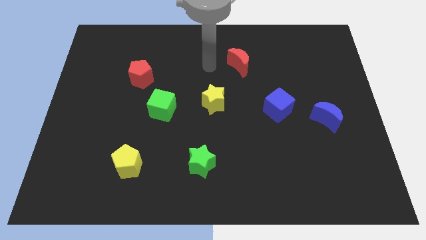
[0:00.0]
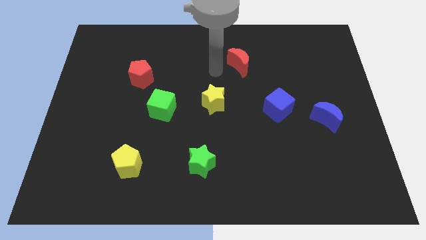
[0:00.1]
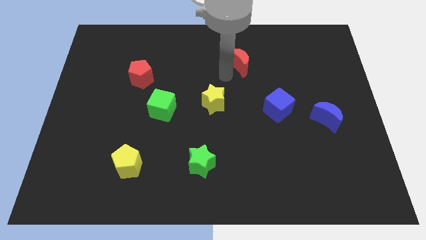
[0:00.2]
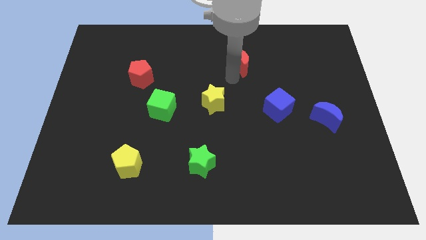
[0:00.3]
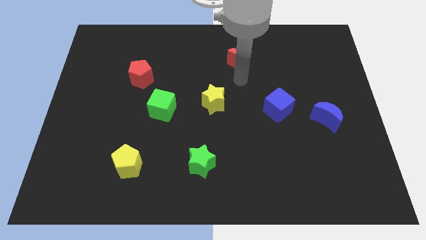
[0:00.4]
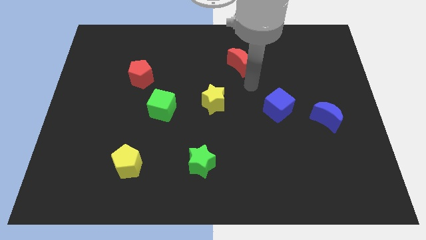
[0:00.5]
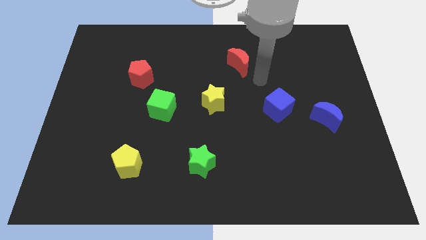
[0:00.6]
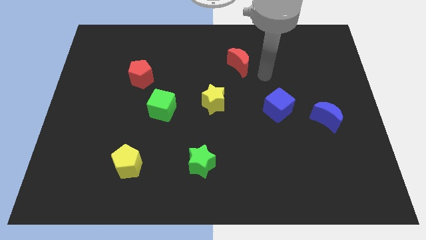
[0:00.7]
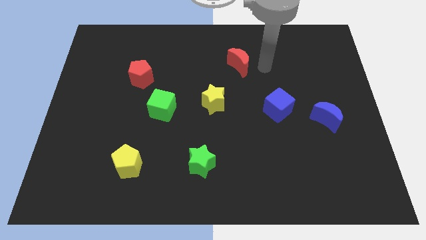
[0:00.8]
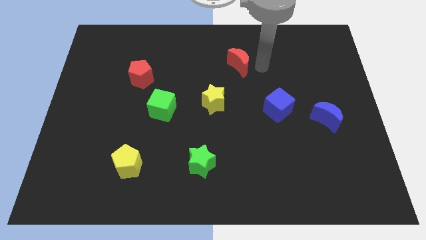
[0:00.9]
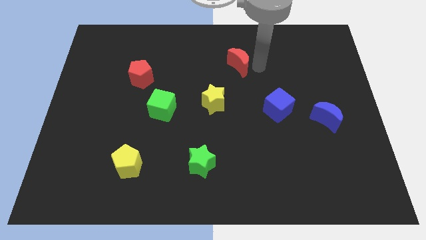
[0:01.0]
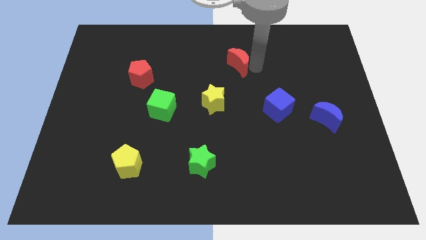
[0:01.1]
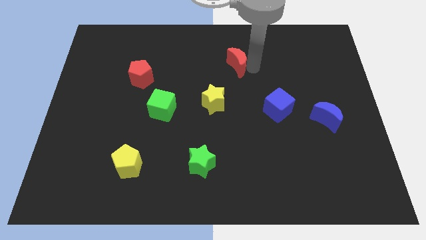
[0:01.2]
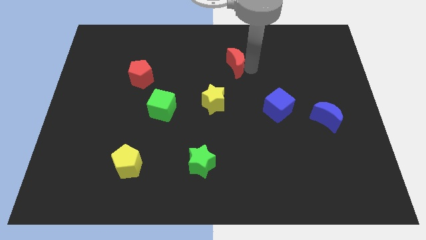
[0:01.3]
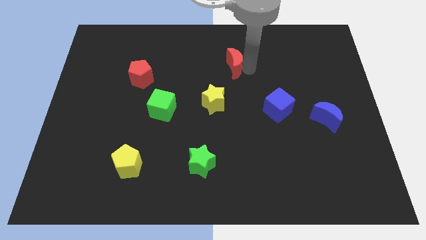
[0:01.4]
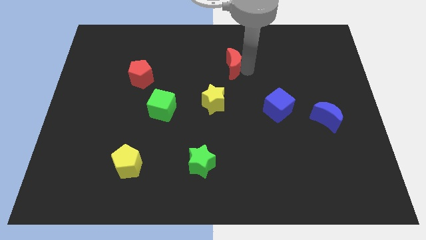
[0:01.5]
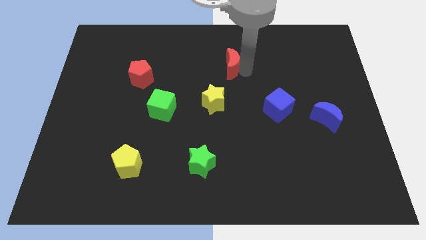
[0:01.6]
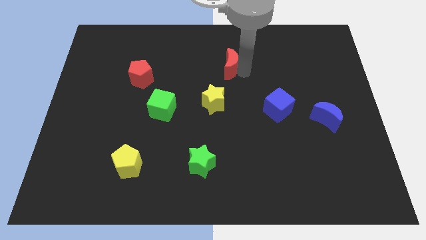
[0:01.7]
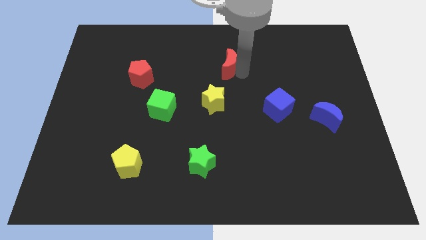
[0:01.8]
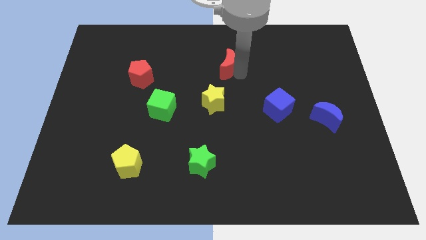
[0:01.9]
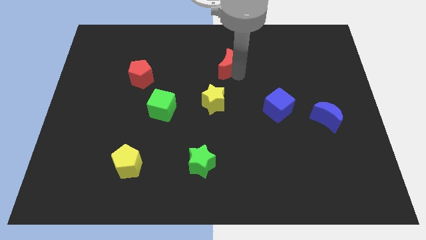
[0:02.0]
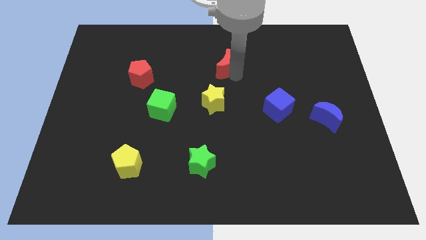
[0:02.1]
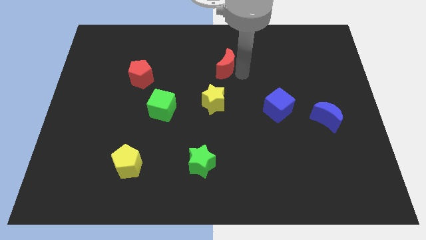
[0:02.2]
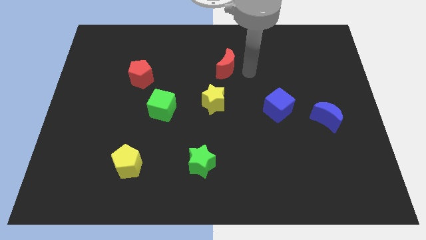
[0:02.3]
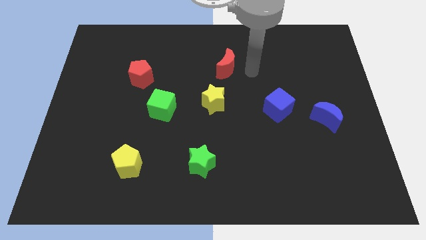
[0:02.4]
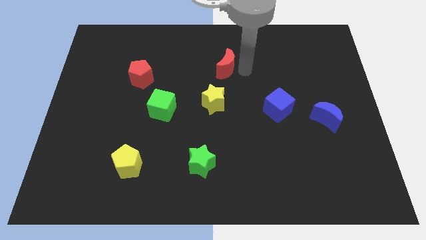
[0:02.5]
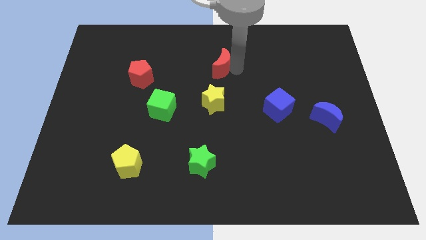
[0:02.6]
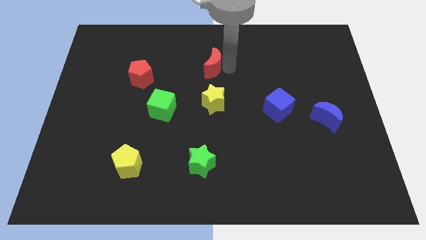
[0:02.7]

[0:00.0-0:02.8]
move the red moon left a bit

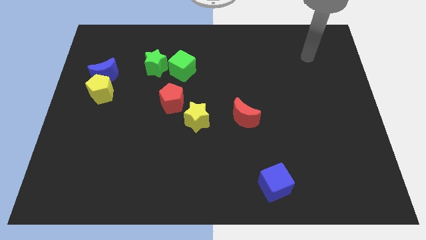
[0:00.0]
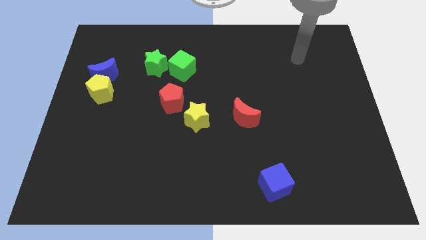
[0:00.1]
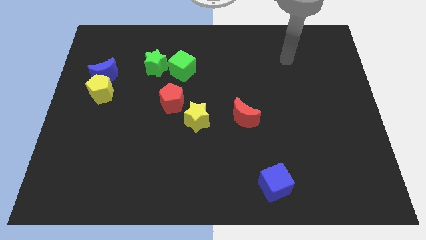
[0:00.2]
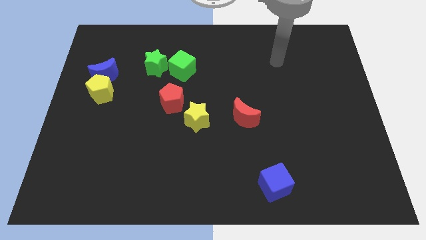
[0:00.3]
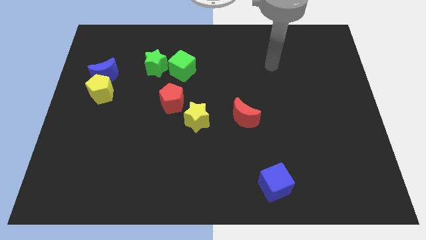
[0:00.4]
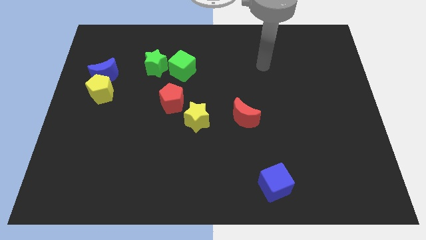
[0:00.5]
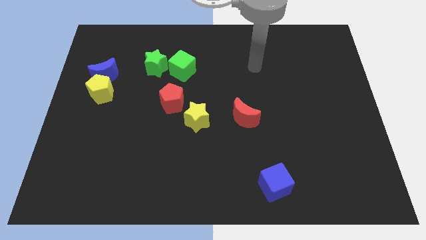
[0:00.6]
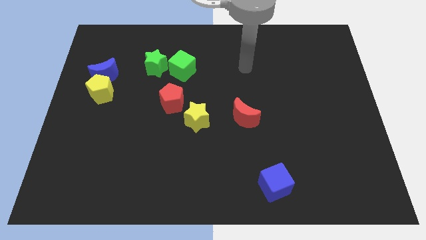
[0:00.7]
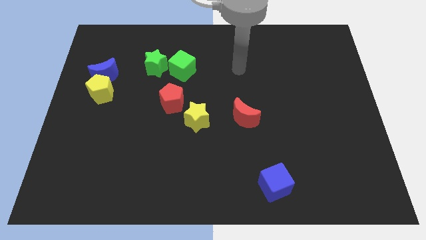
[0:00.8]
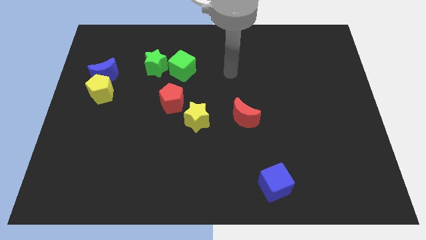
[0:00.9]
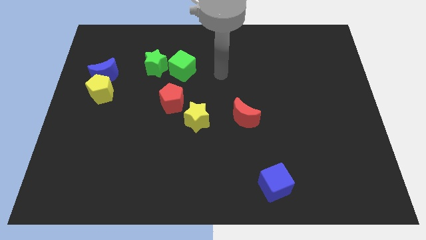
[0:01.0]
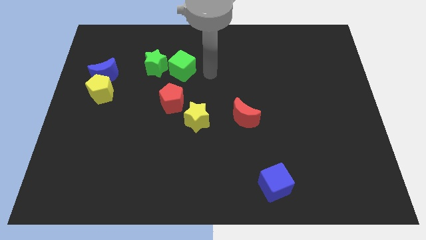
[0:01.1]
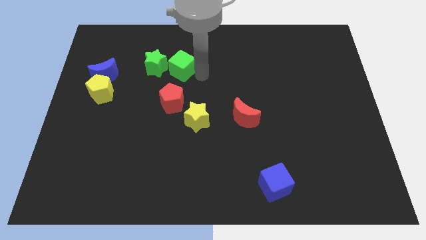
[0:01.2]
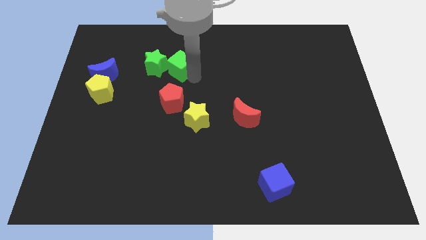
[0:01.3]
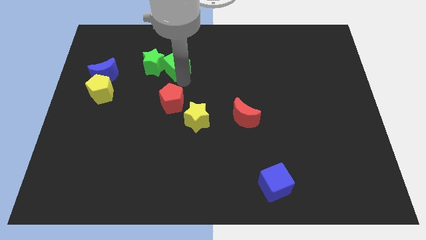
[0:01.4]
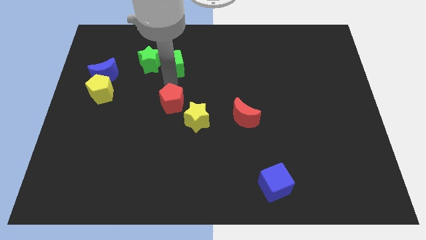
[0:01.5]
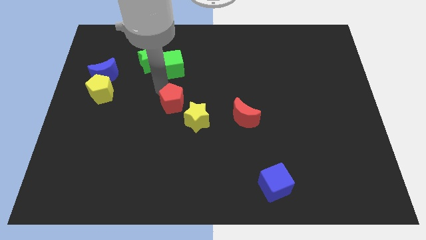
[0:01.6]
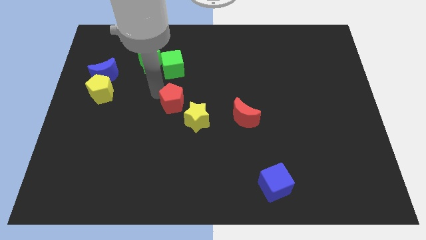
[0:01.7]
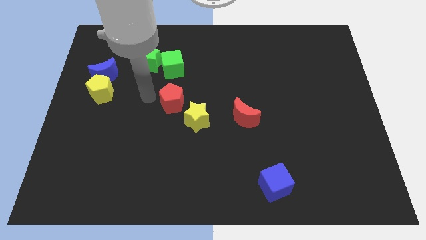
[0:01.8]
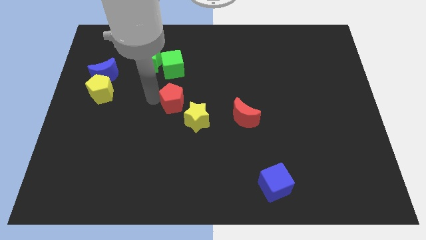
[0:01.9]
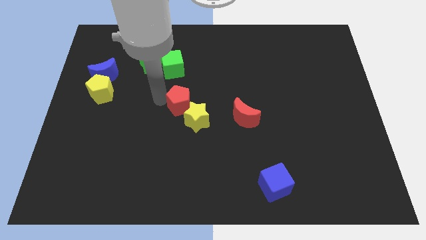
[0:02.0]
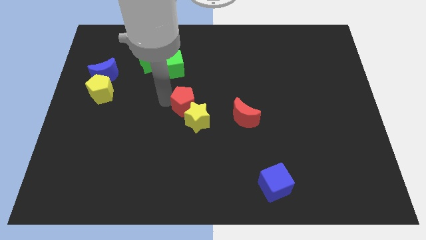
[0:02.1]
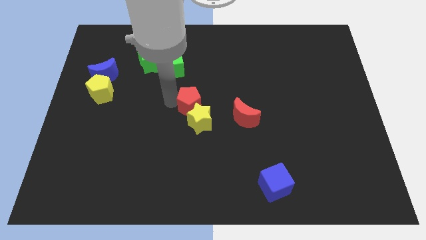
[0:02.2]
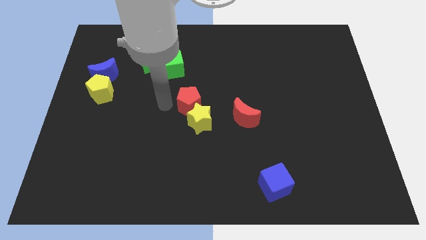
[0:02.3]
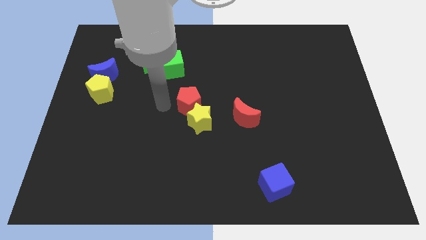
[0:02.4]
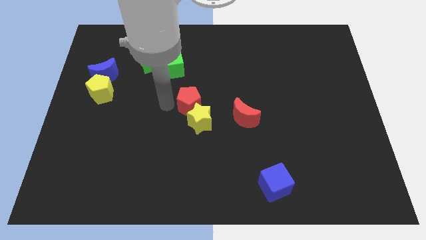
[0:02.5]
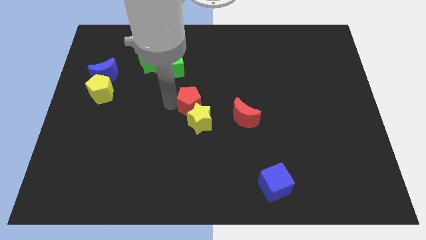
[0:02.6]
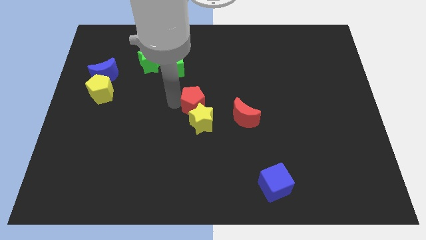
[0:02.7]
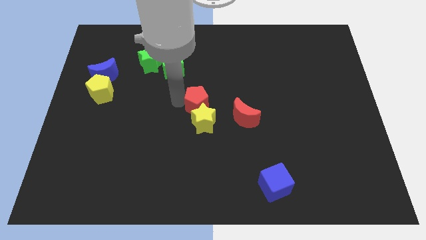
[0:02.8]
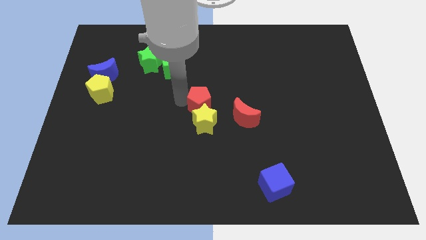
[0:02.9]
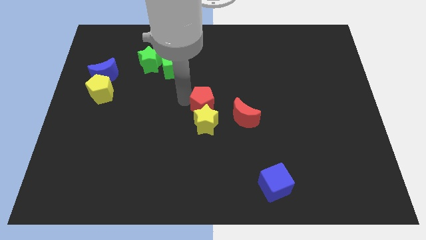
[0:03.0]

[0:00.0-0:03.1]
slide the red pentagon a bit right

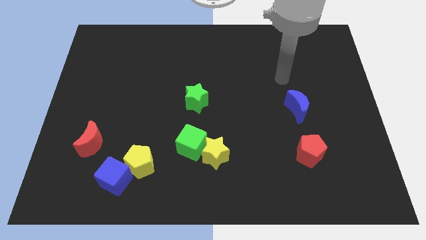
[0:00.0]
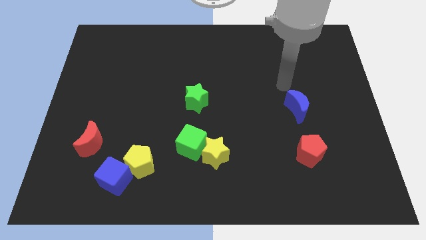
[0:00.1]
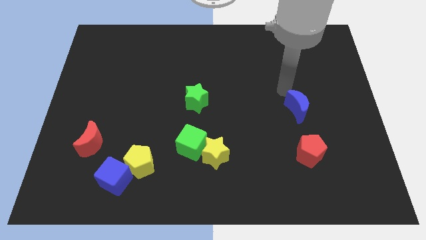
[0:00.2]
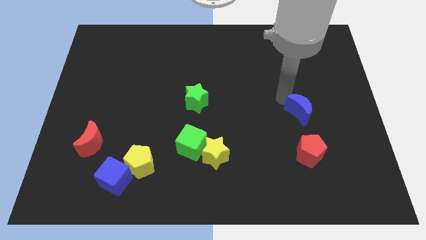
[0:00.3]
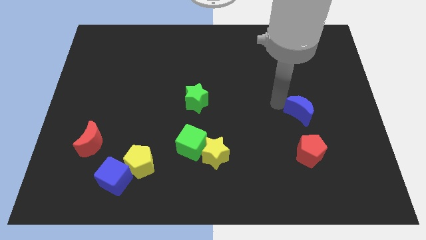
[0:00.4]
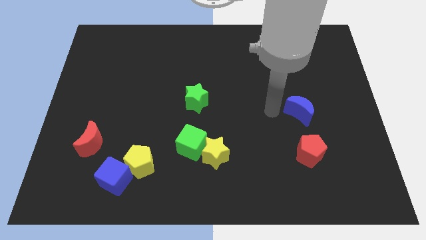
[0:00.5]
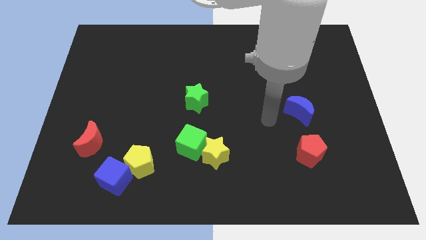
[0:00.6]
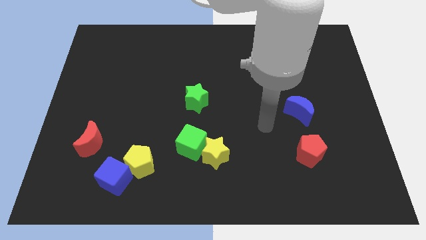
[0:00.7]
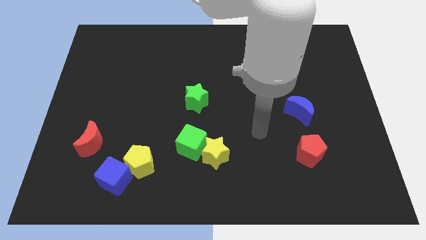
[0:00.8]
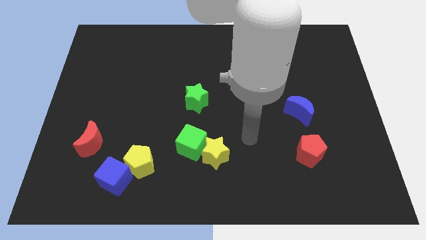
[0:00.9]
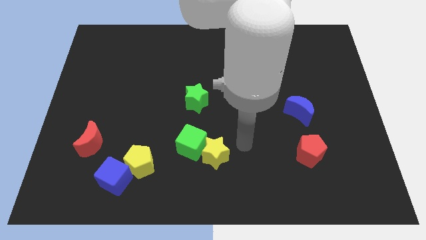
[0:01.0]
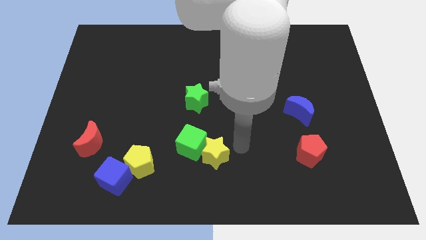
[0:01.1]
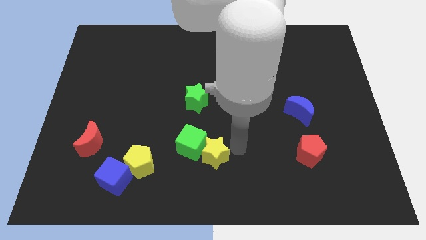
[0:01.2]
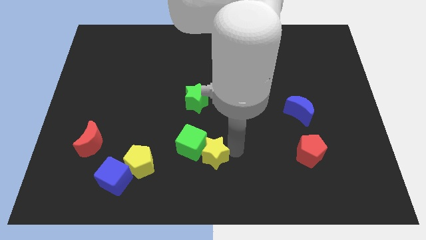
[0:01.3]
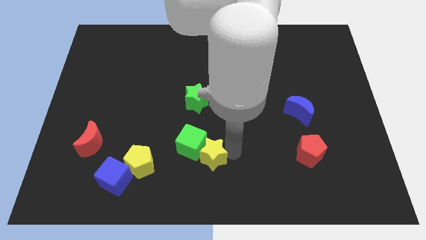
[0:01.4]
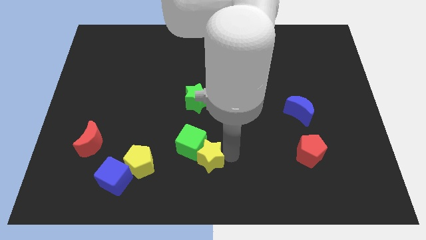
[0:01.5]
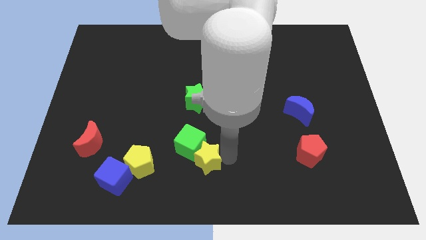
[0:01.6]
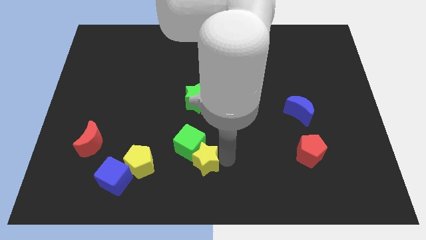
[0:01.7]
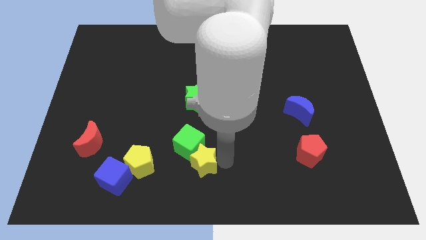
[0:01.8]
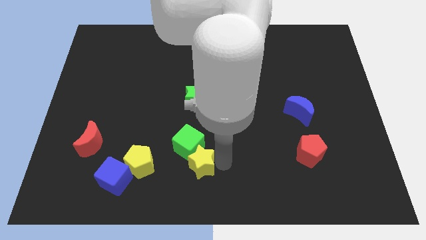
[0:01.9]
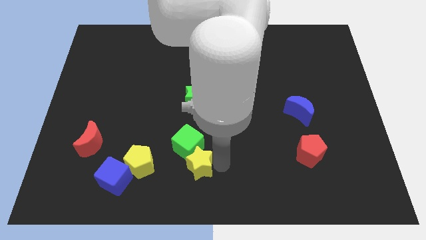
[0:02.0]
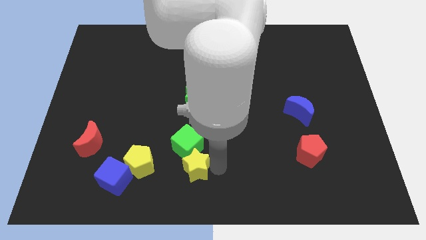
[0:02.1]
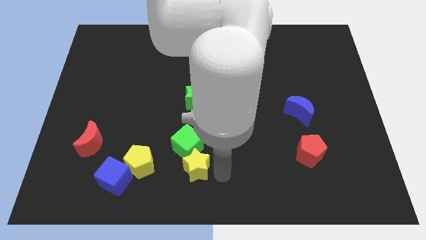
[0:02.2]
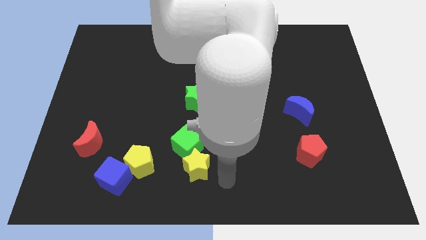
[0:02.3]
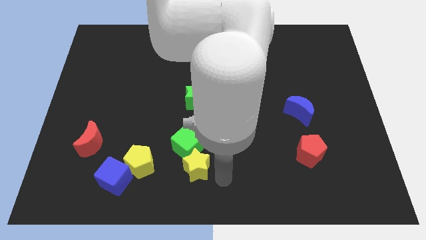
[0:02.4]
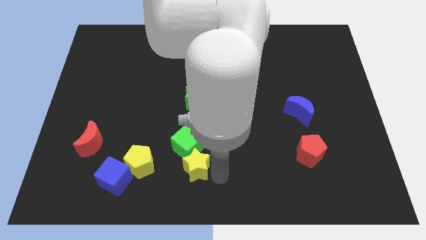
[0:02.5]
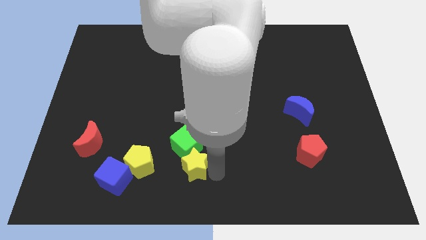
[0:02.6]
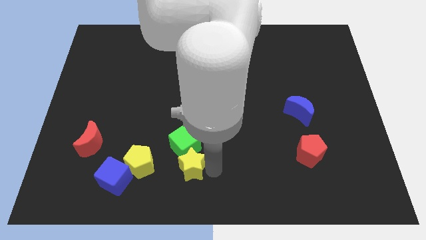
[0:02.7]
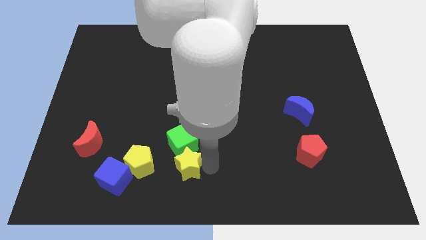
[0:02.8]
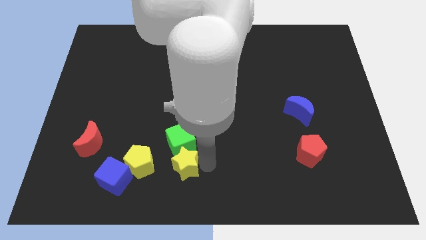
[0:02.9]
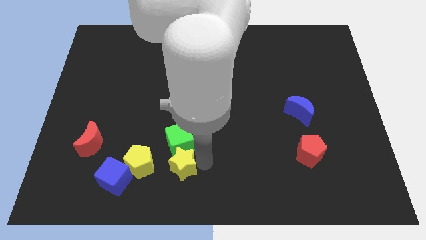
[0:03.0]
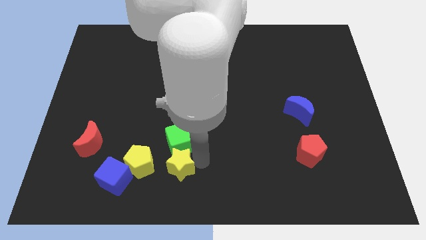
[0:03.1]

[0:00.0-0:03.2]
slightly push the yellow star left
